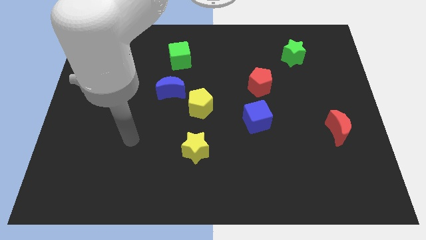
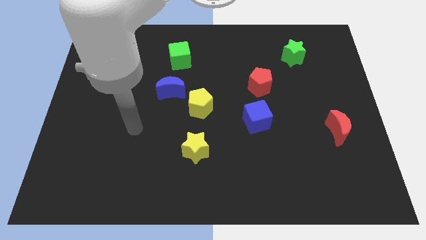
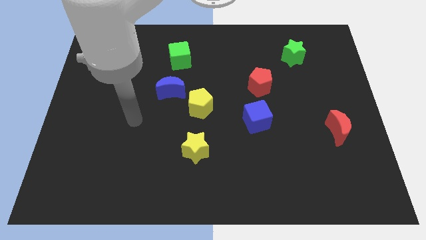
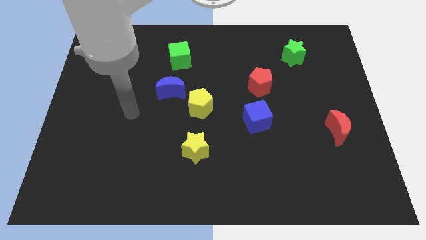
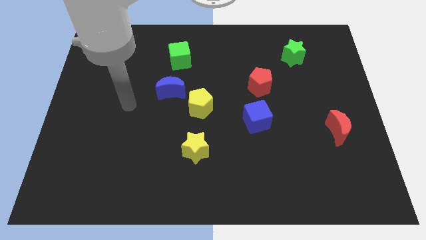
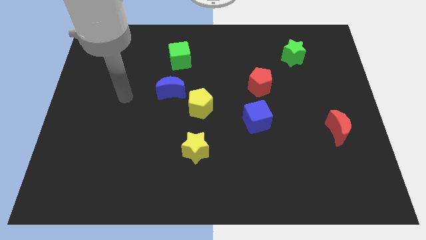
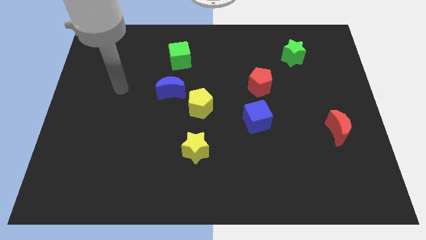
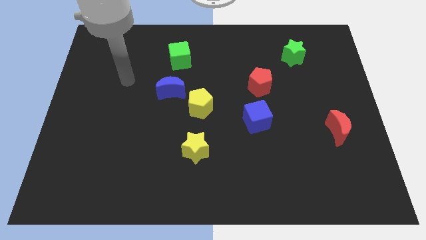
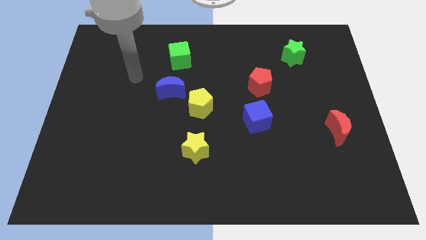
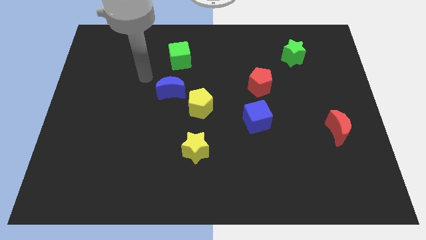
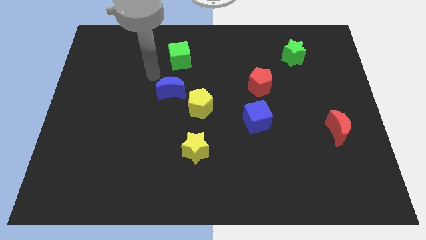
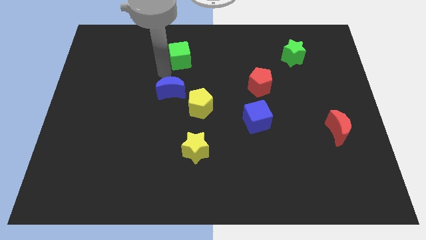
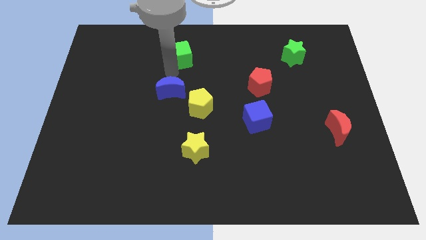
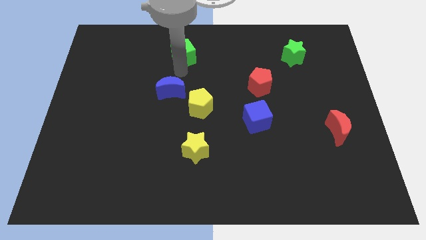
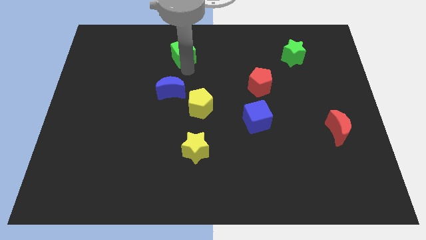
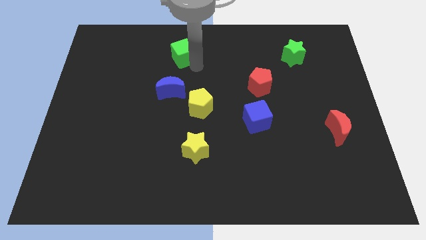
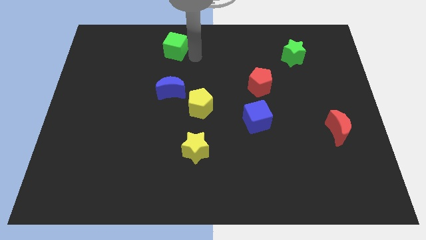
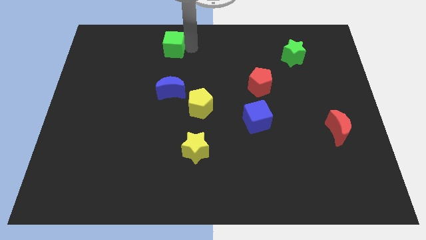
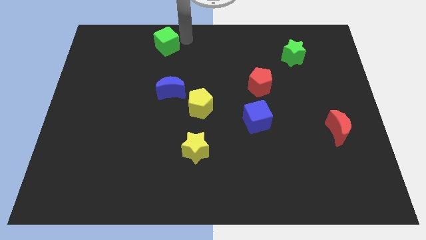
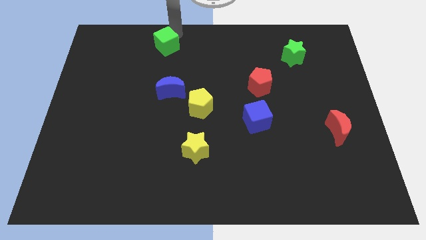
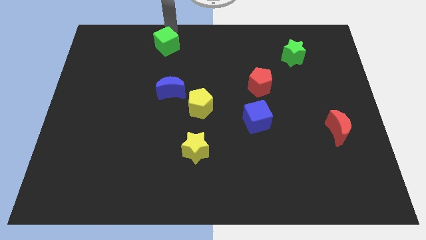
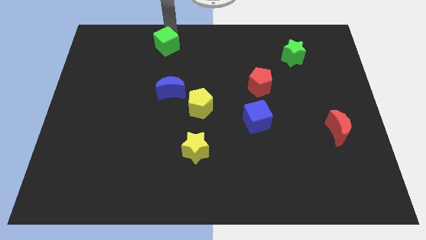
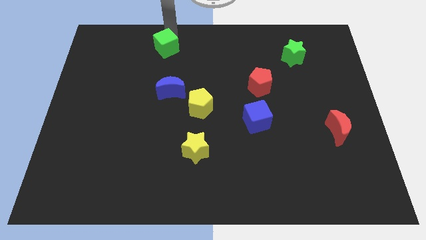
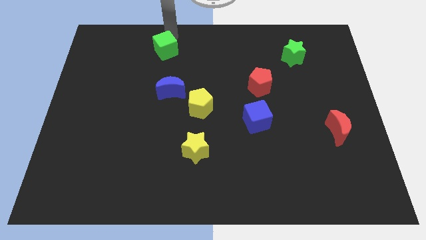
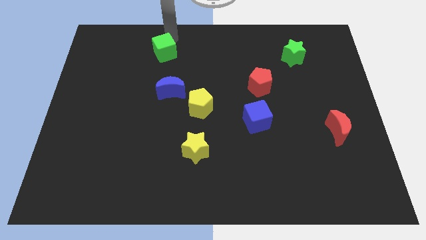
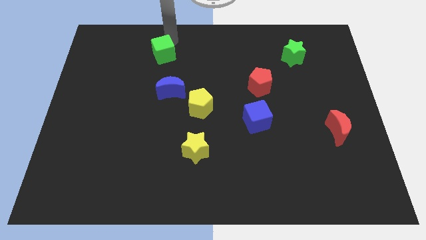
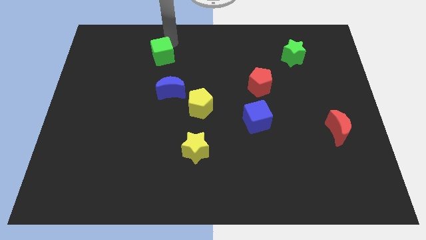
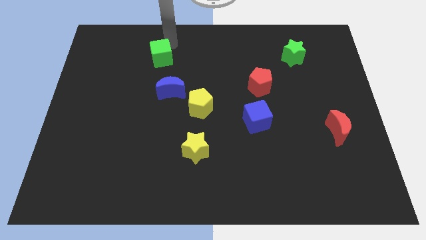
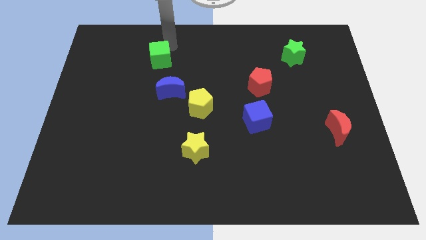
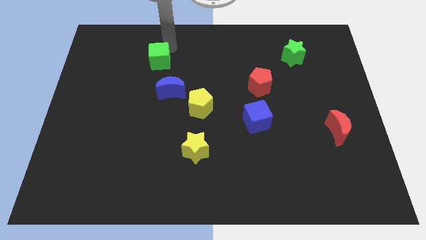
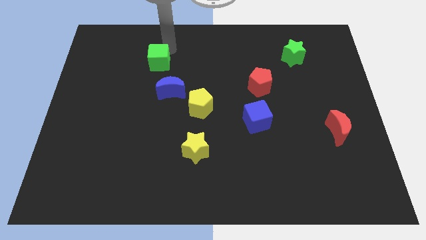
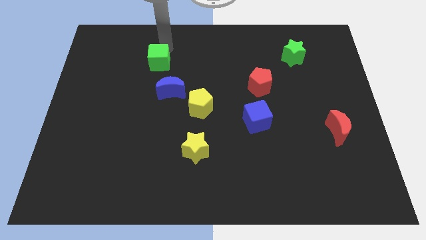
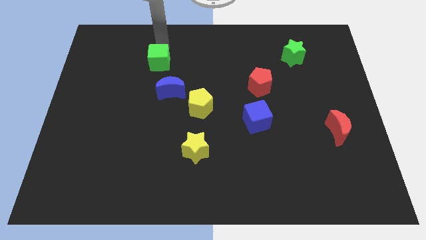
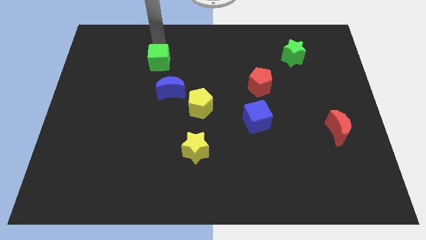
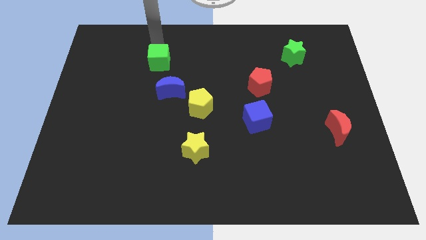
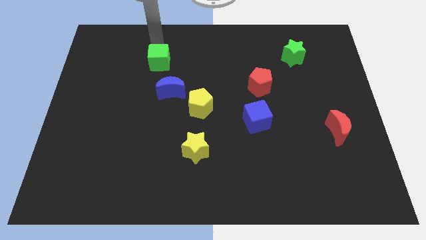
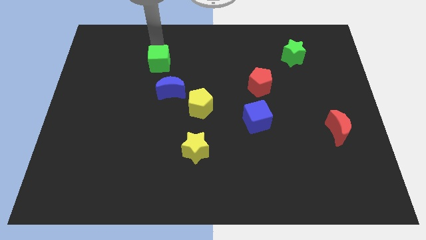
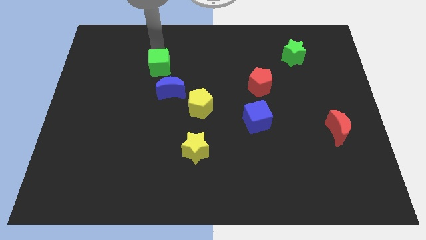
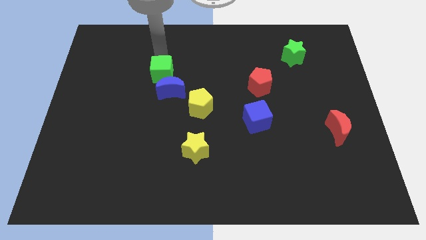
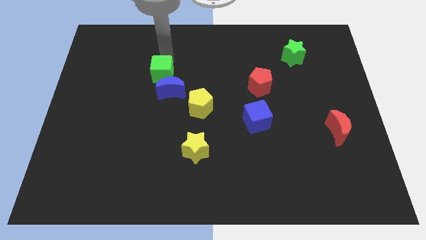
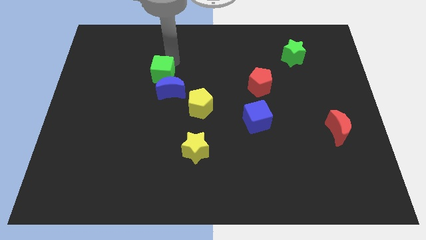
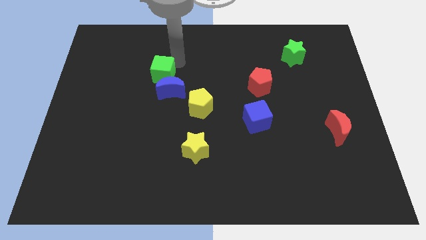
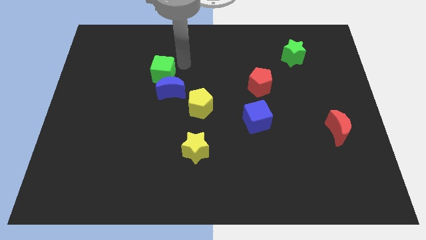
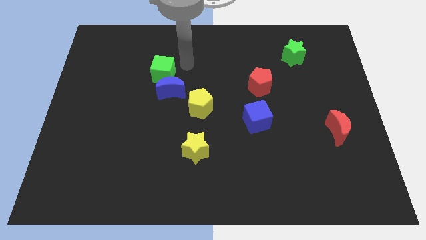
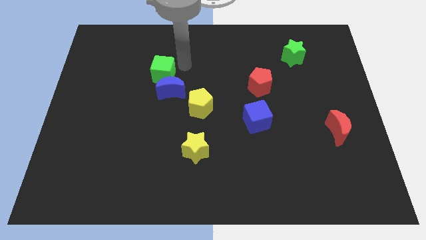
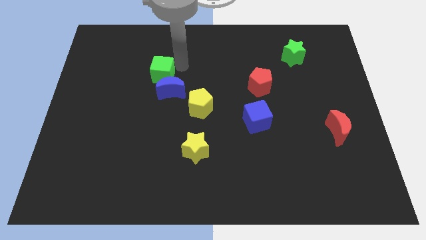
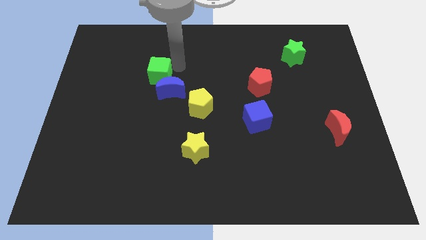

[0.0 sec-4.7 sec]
push the green cube slightly diagonally downwards and left

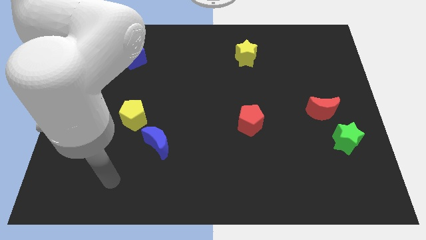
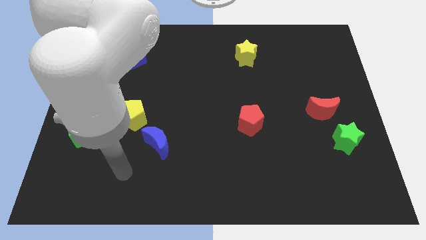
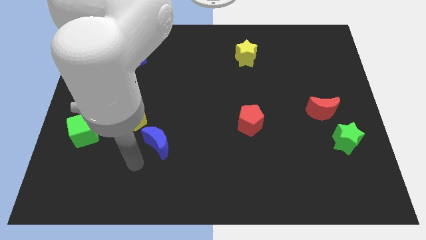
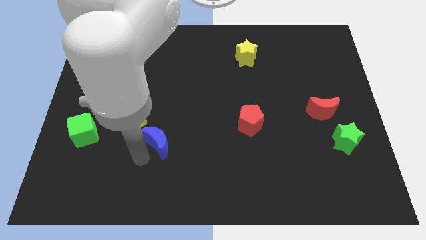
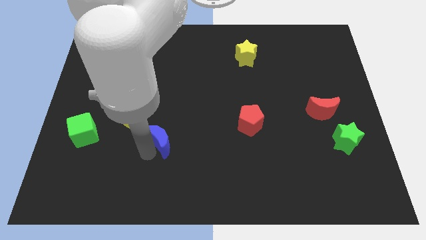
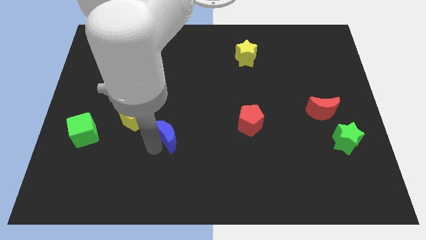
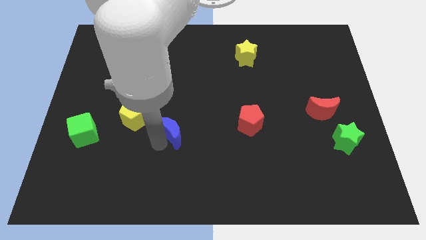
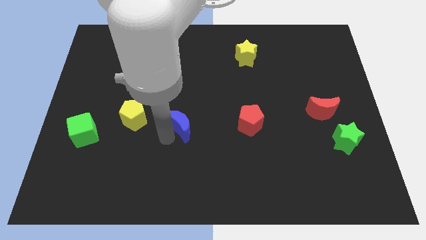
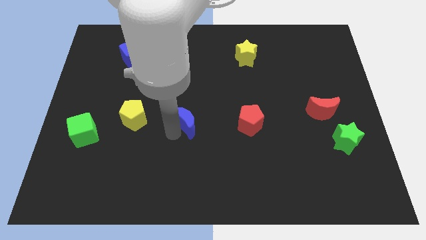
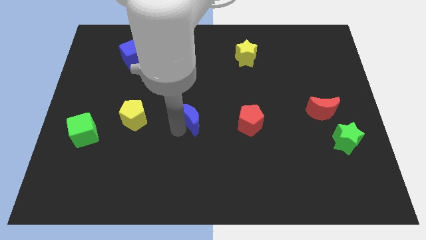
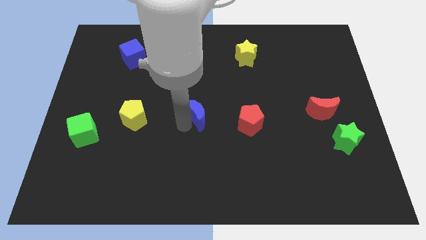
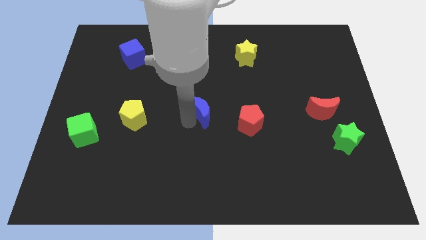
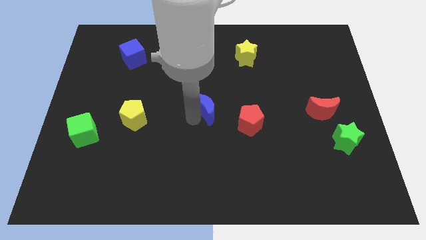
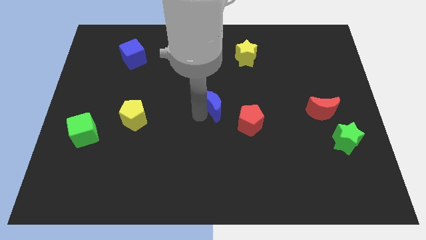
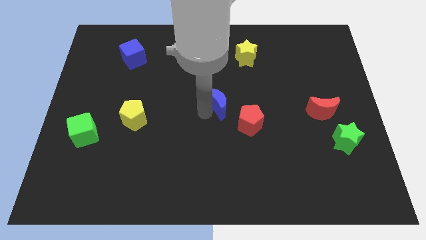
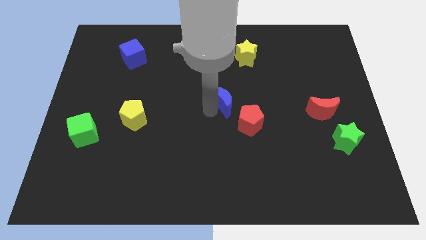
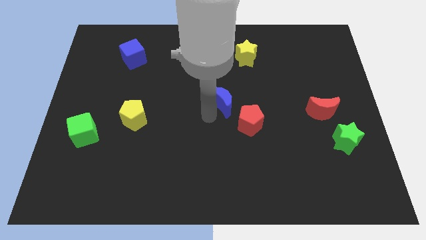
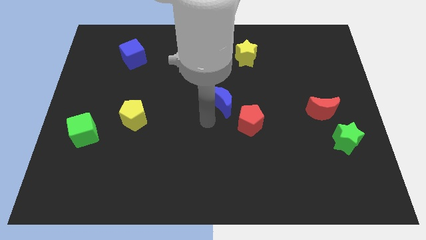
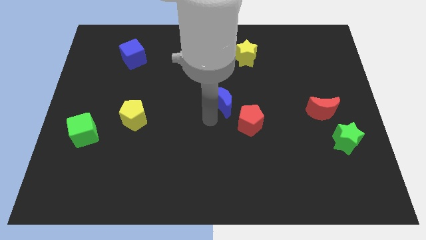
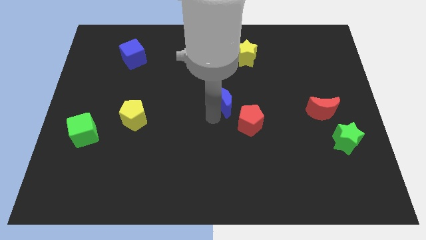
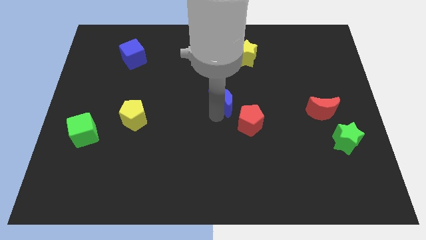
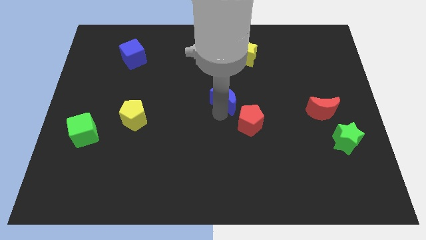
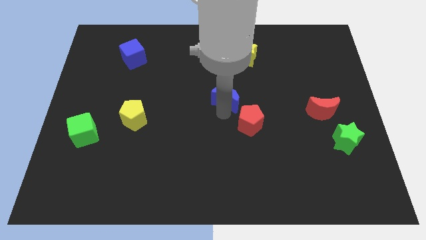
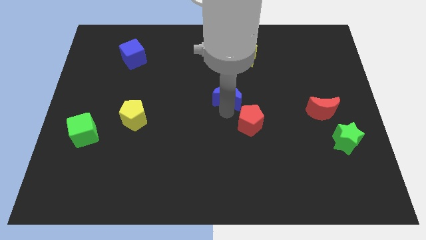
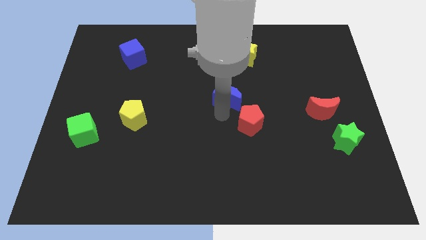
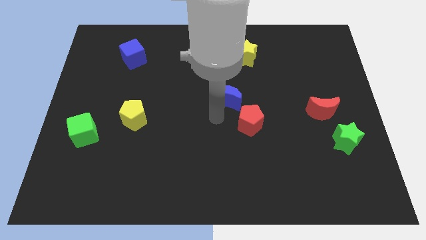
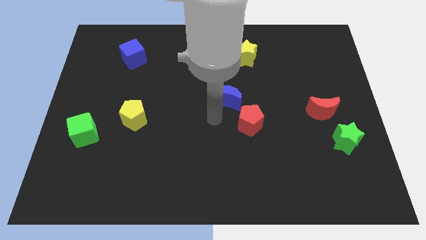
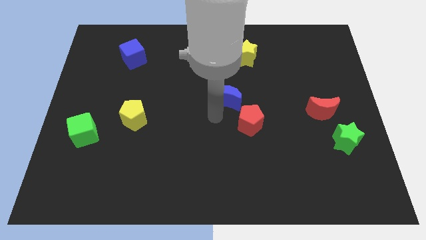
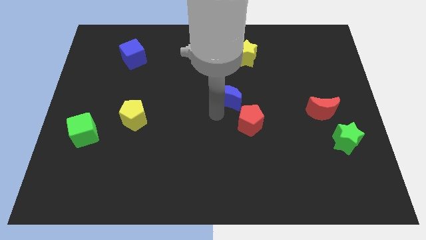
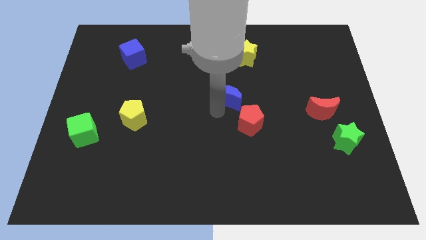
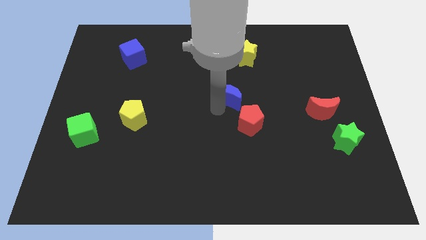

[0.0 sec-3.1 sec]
move the blue moon up and right diagonally
